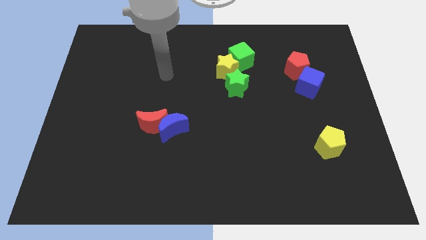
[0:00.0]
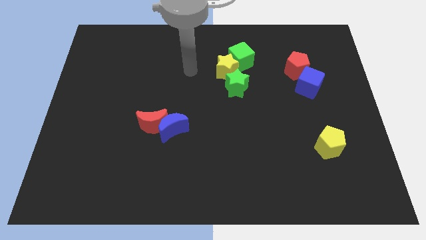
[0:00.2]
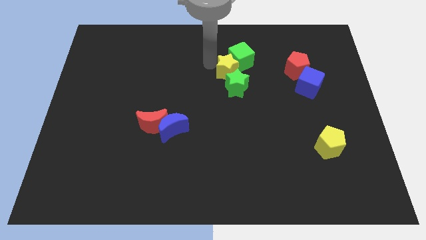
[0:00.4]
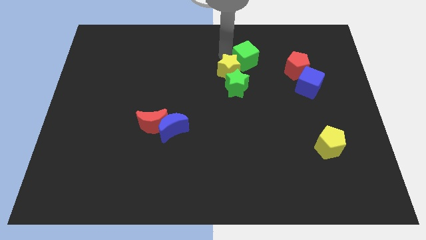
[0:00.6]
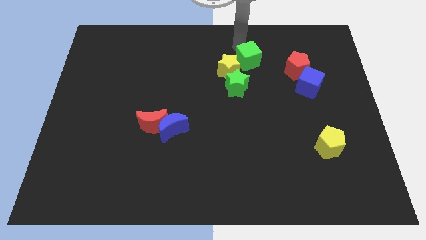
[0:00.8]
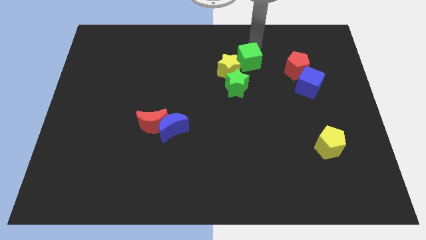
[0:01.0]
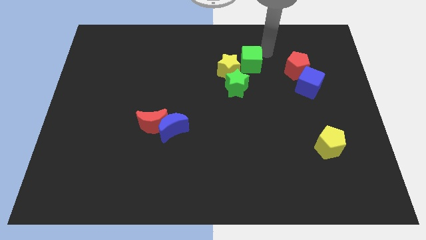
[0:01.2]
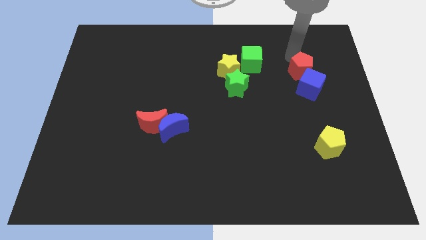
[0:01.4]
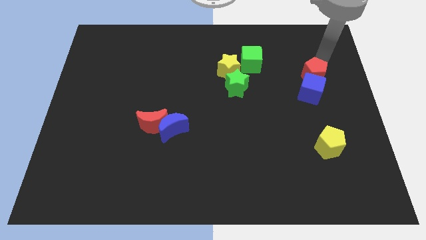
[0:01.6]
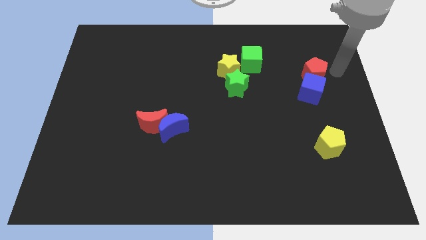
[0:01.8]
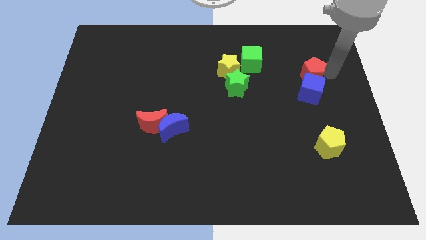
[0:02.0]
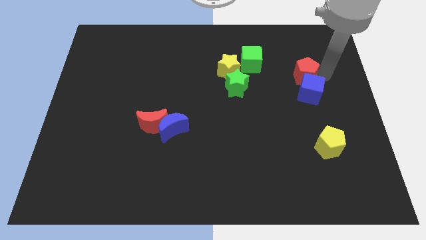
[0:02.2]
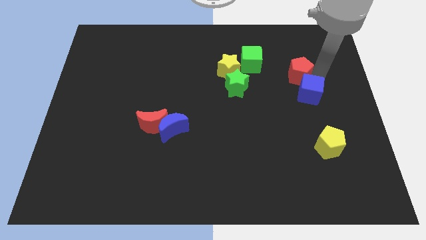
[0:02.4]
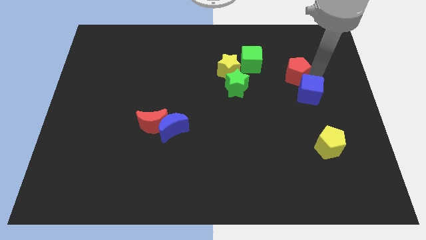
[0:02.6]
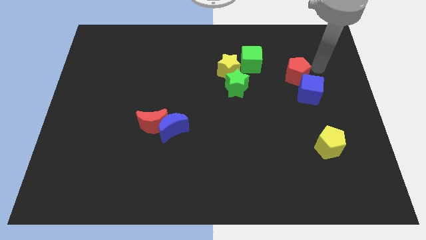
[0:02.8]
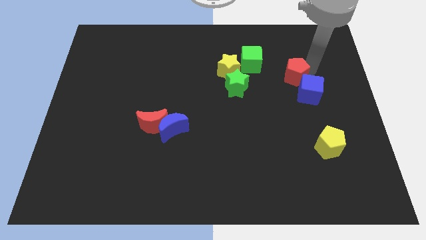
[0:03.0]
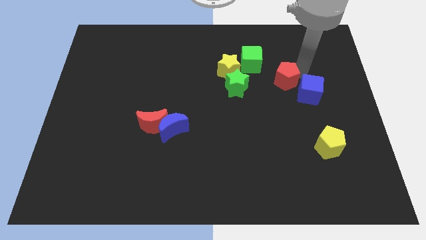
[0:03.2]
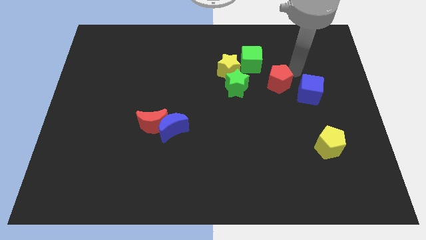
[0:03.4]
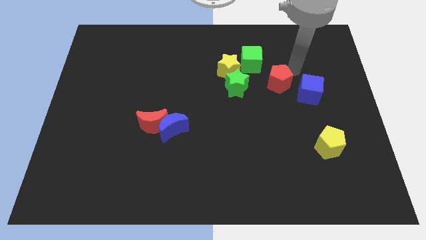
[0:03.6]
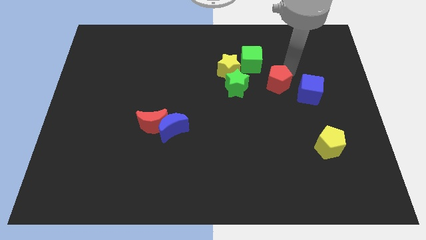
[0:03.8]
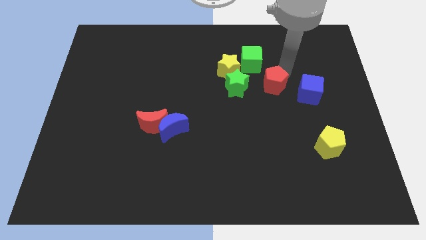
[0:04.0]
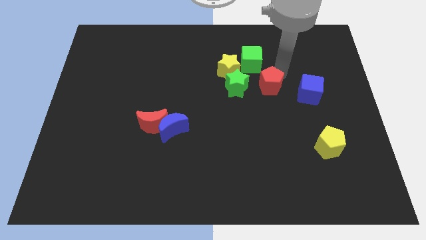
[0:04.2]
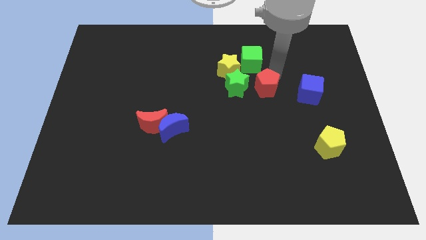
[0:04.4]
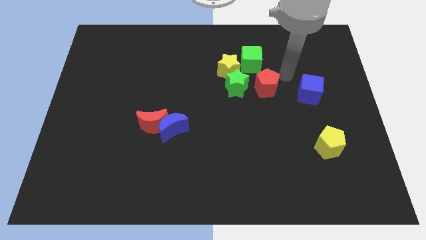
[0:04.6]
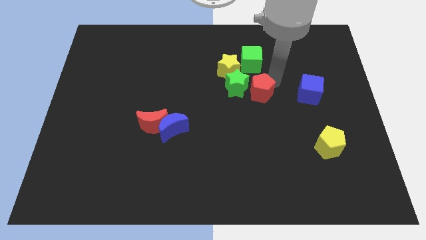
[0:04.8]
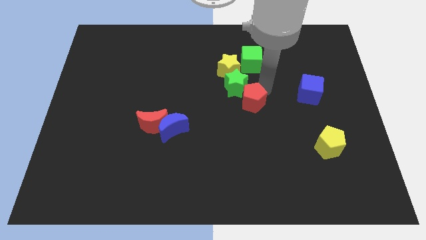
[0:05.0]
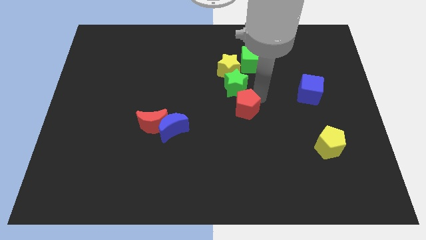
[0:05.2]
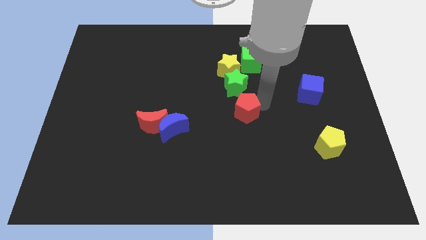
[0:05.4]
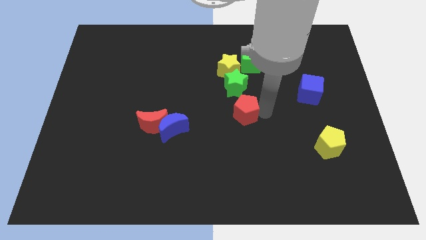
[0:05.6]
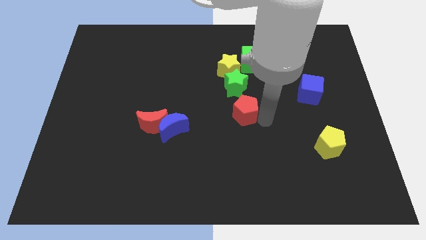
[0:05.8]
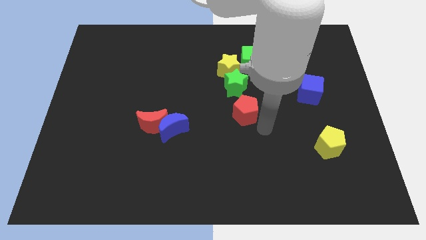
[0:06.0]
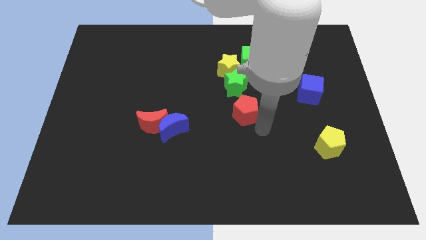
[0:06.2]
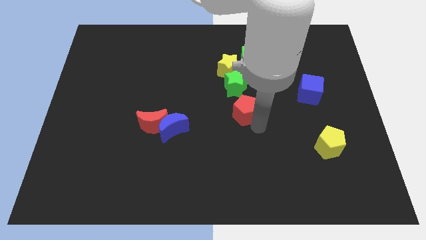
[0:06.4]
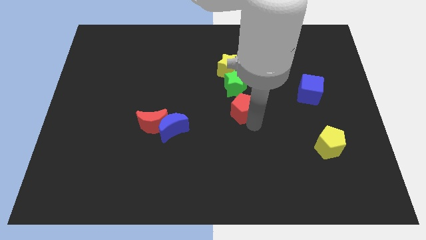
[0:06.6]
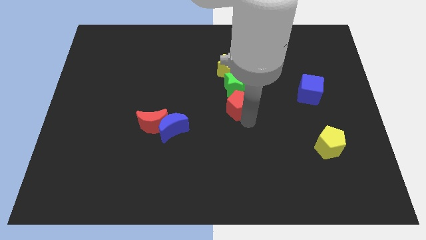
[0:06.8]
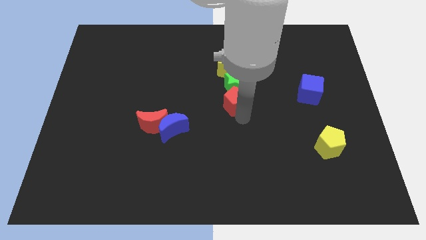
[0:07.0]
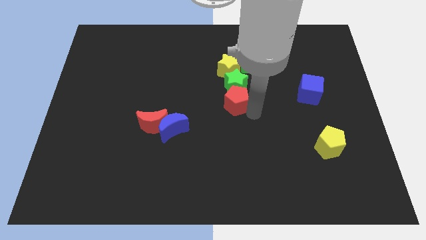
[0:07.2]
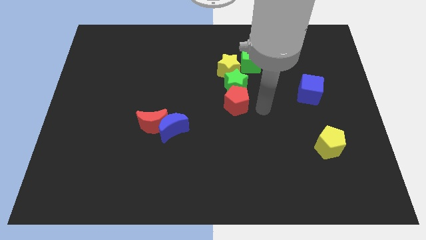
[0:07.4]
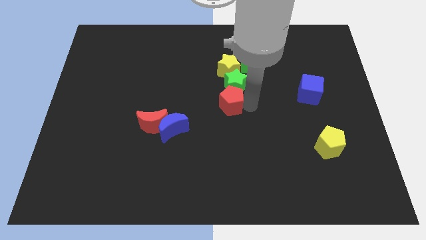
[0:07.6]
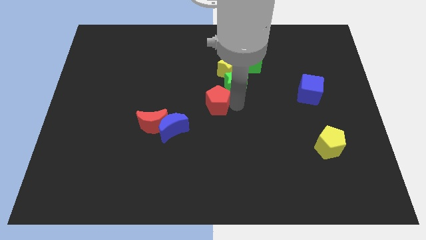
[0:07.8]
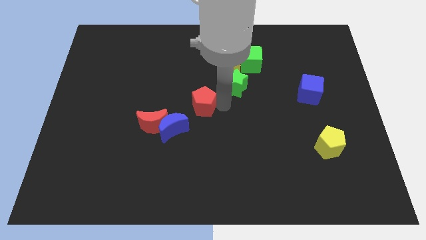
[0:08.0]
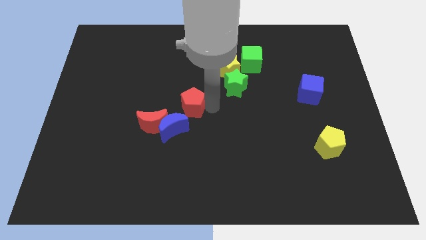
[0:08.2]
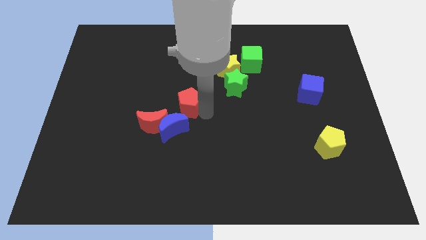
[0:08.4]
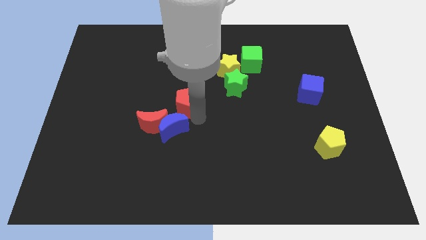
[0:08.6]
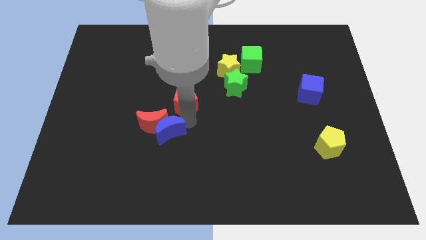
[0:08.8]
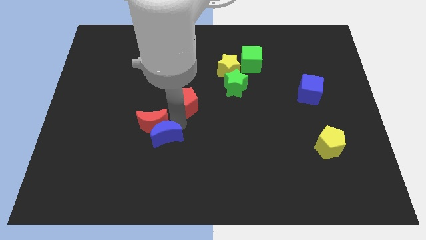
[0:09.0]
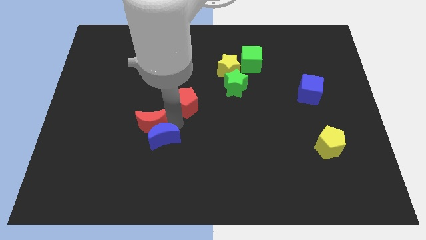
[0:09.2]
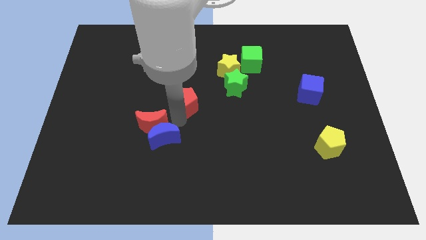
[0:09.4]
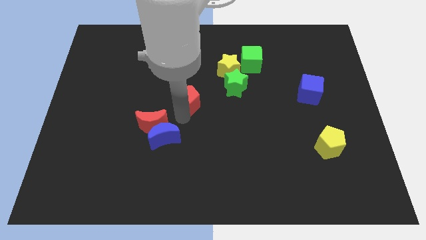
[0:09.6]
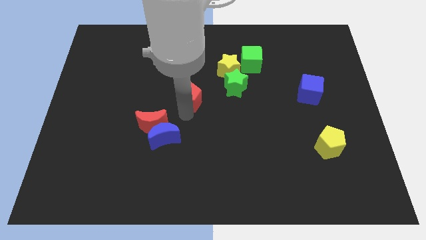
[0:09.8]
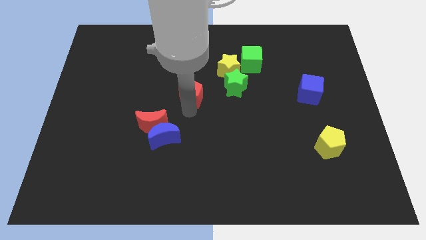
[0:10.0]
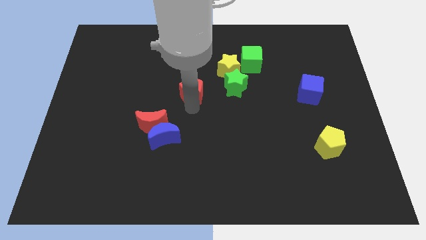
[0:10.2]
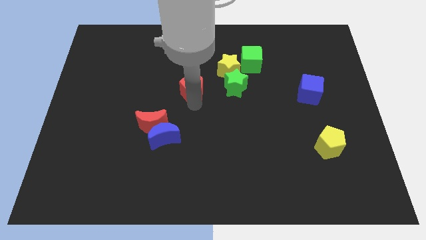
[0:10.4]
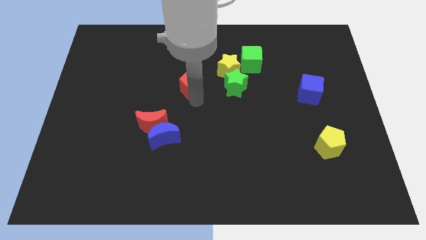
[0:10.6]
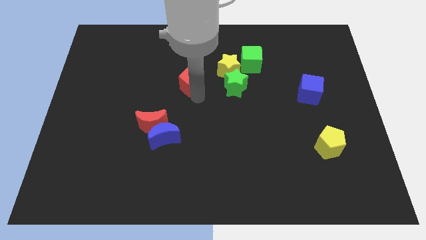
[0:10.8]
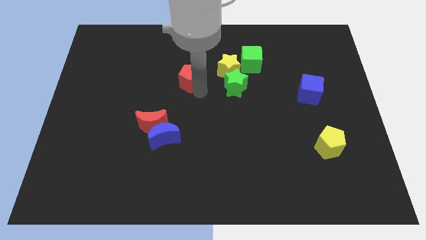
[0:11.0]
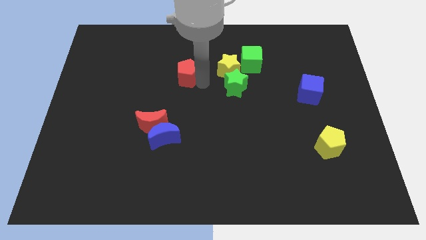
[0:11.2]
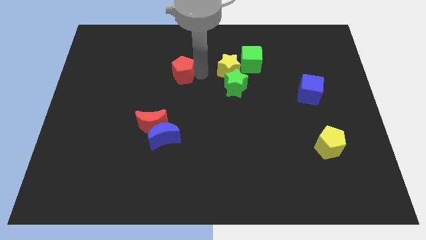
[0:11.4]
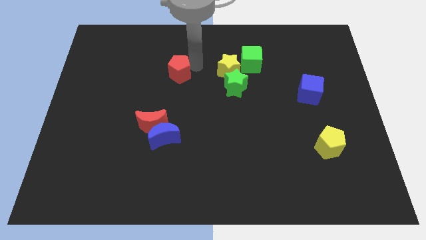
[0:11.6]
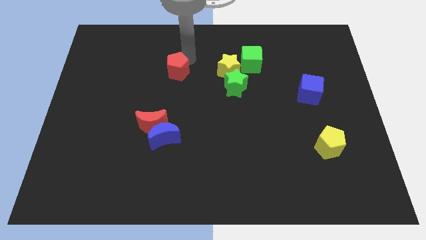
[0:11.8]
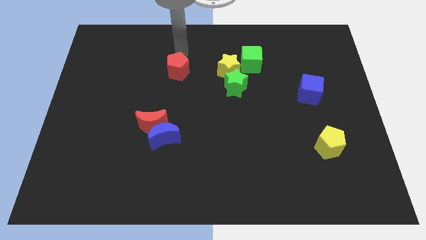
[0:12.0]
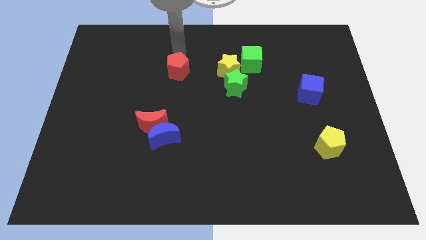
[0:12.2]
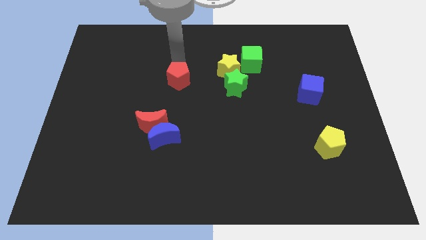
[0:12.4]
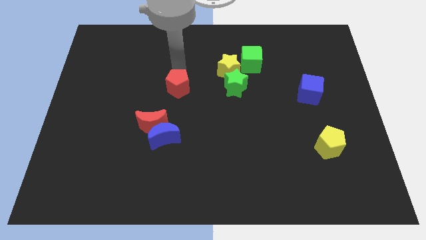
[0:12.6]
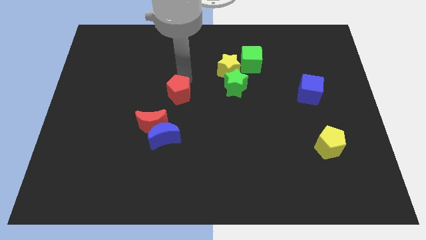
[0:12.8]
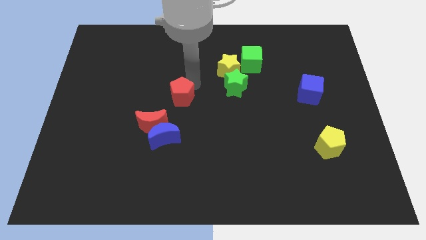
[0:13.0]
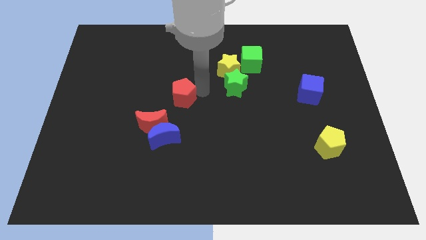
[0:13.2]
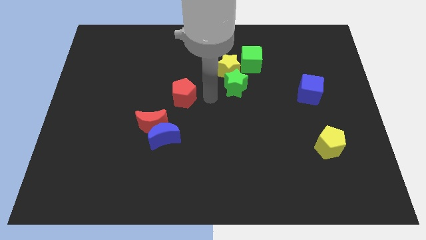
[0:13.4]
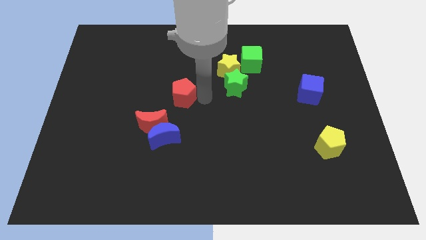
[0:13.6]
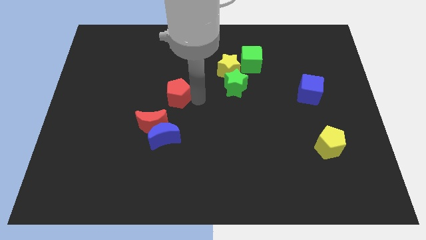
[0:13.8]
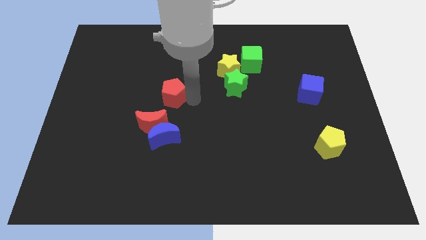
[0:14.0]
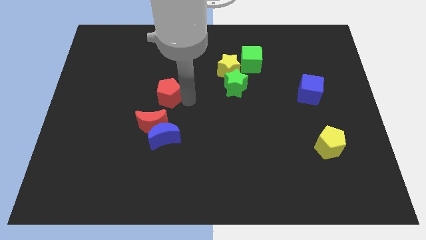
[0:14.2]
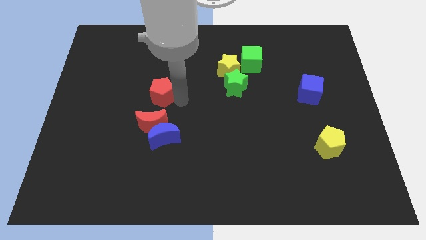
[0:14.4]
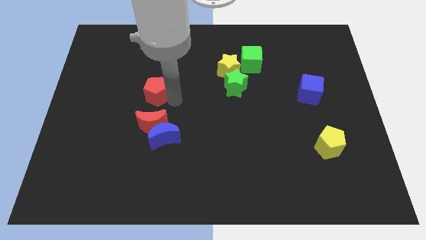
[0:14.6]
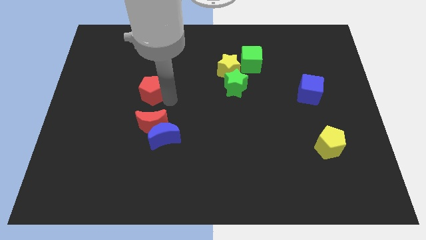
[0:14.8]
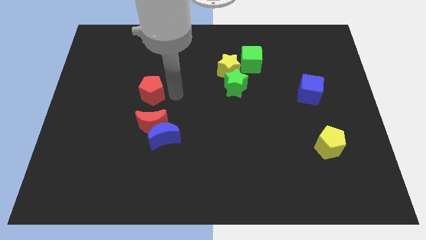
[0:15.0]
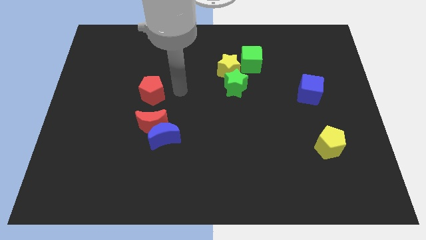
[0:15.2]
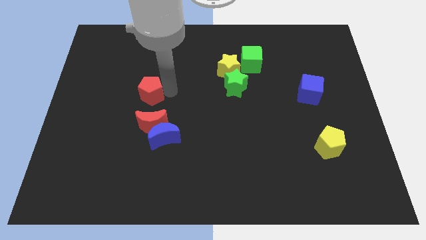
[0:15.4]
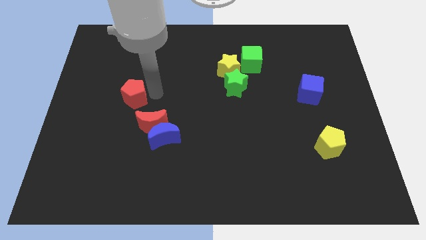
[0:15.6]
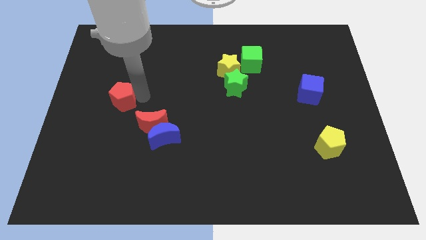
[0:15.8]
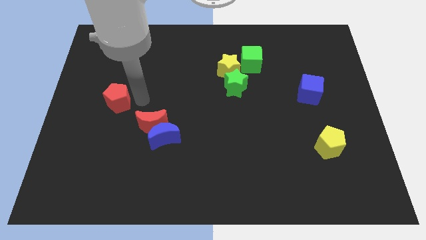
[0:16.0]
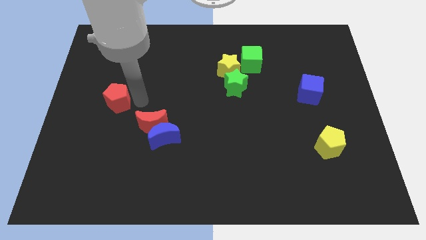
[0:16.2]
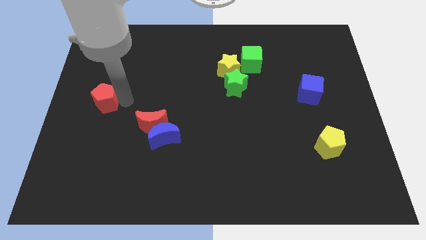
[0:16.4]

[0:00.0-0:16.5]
move the red pentagon to the left side of the board
